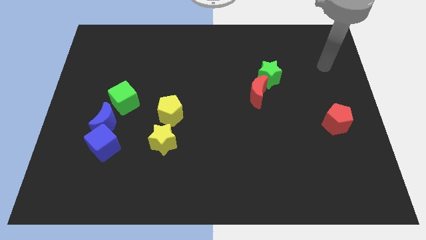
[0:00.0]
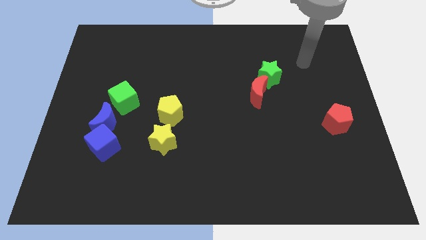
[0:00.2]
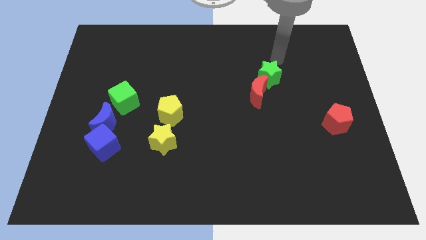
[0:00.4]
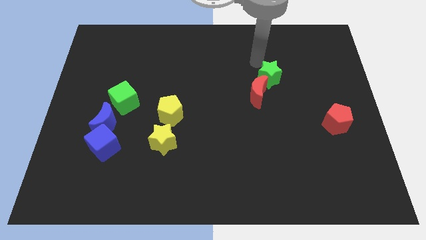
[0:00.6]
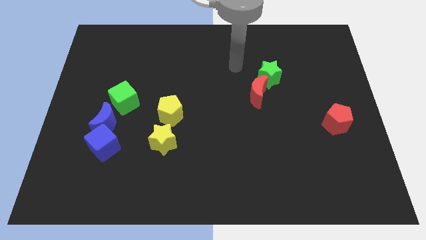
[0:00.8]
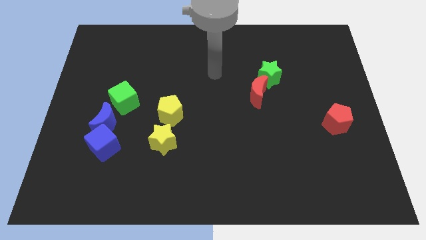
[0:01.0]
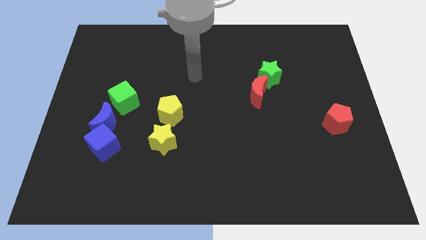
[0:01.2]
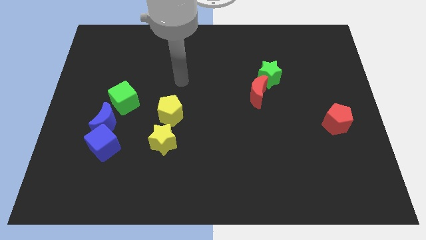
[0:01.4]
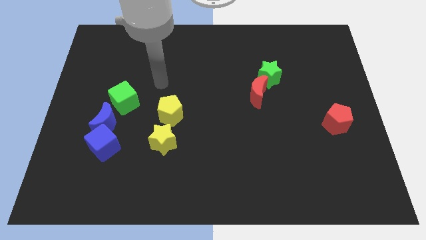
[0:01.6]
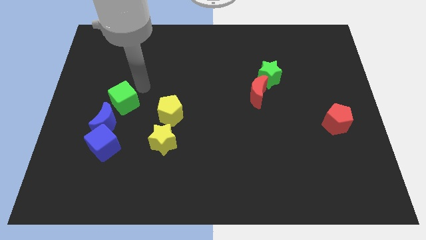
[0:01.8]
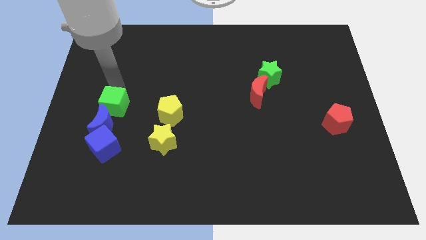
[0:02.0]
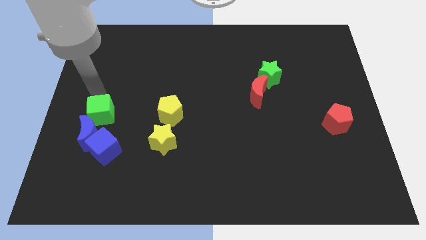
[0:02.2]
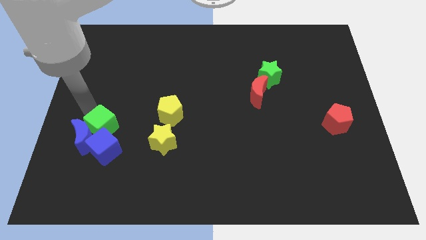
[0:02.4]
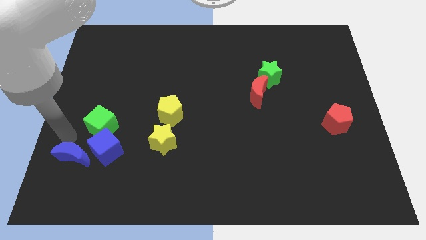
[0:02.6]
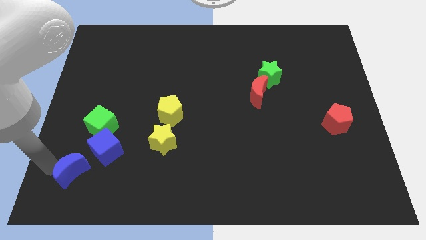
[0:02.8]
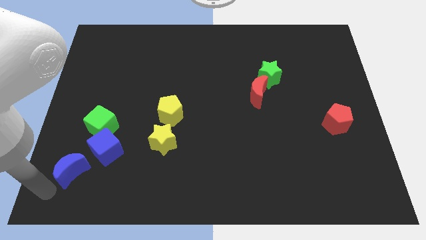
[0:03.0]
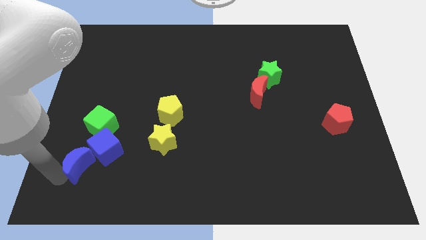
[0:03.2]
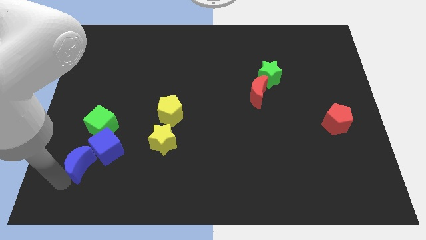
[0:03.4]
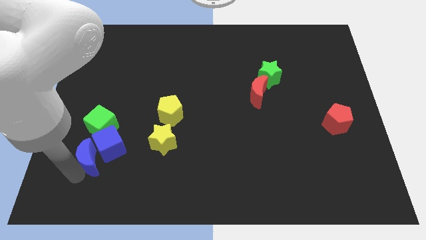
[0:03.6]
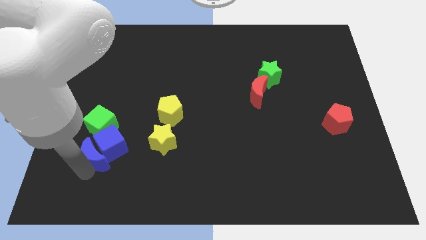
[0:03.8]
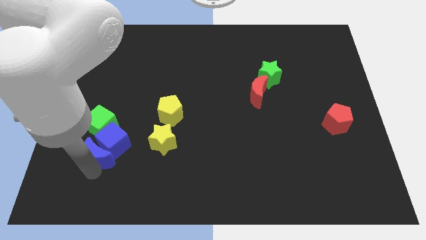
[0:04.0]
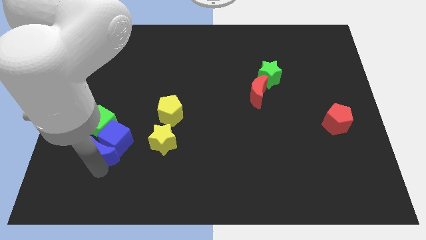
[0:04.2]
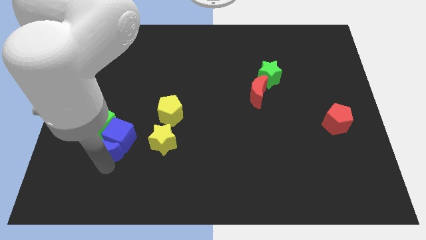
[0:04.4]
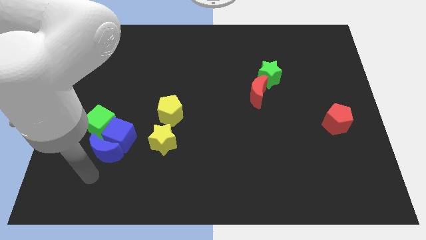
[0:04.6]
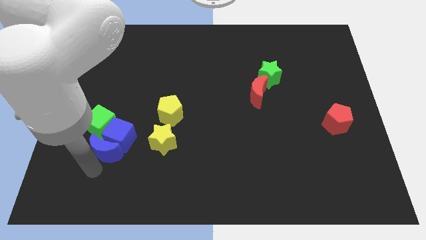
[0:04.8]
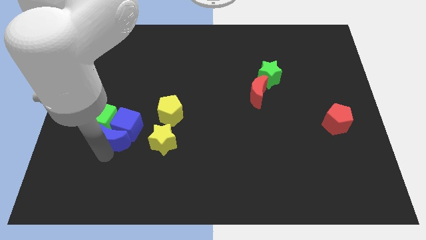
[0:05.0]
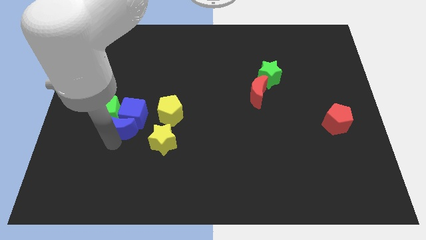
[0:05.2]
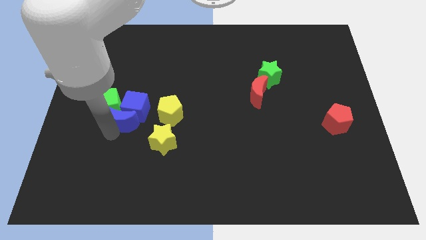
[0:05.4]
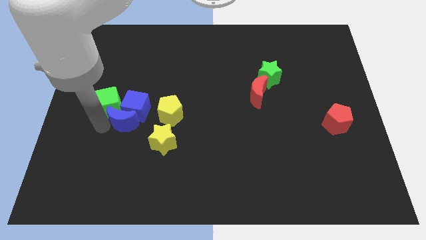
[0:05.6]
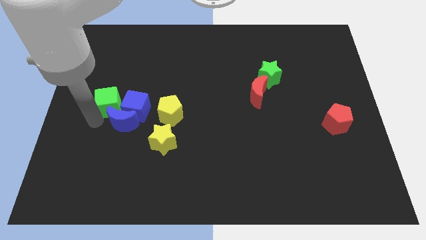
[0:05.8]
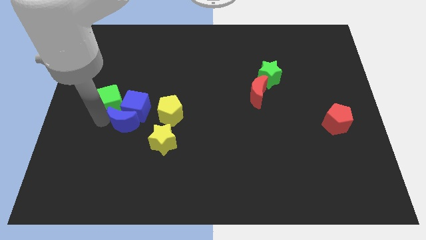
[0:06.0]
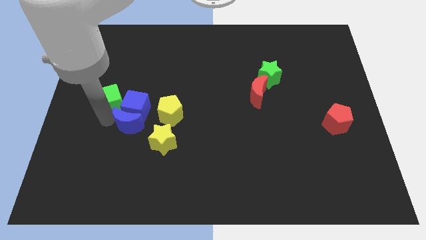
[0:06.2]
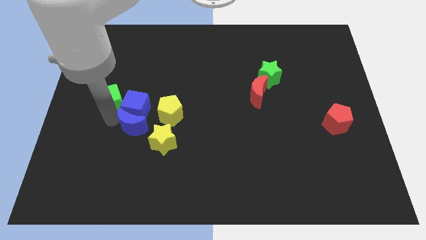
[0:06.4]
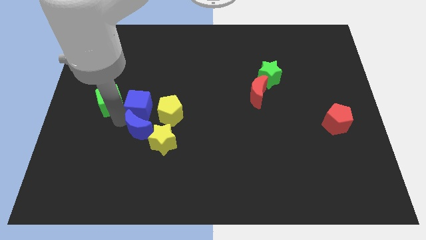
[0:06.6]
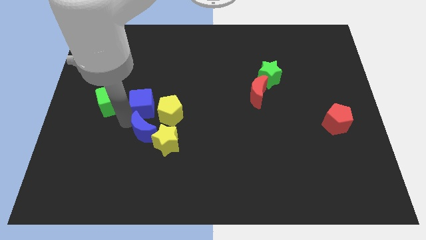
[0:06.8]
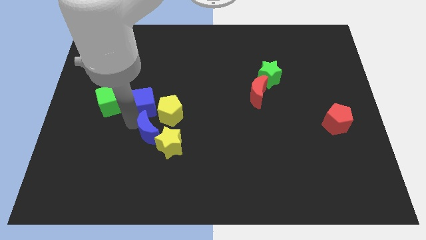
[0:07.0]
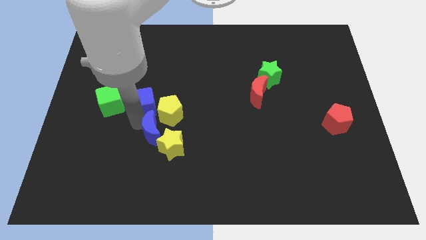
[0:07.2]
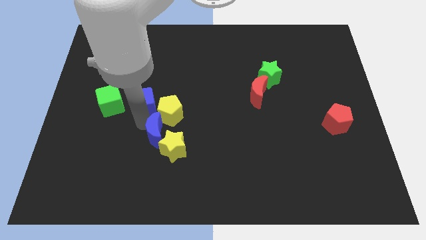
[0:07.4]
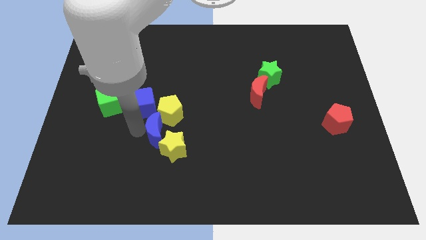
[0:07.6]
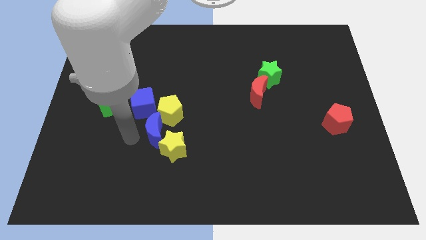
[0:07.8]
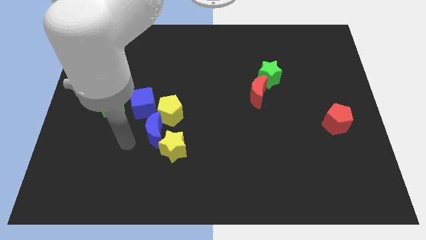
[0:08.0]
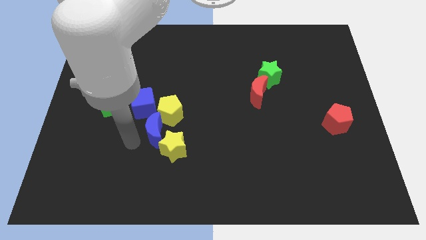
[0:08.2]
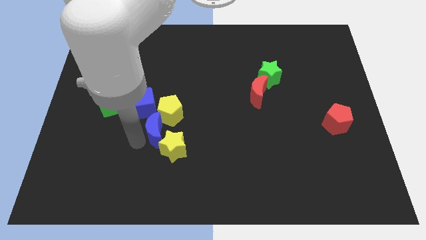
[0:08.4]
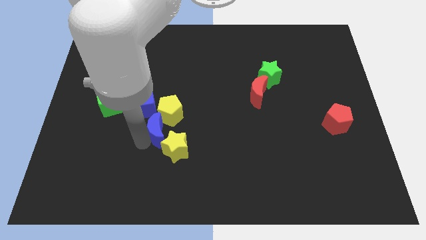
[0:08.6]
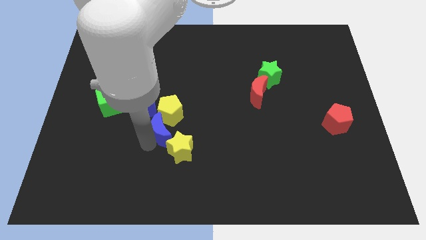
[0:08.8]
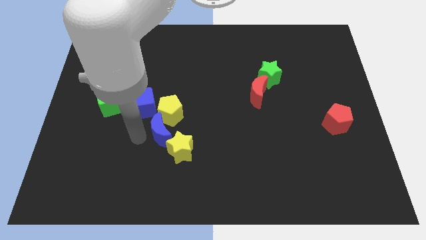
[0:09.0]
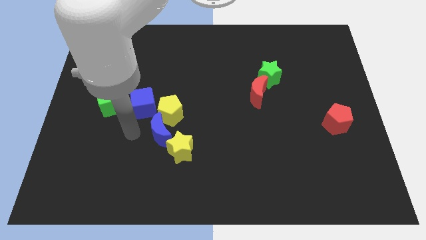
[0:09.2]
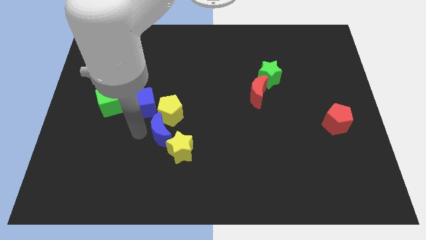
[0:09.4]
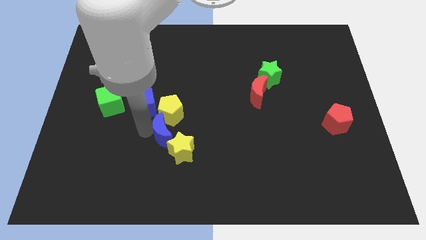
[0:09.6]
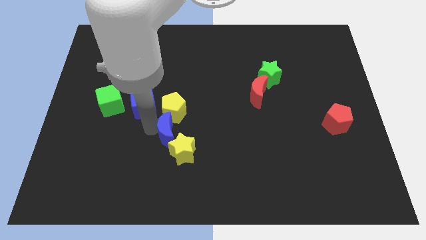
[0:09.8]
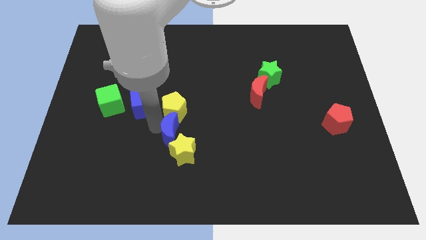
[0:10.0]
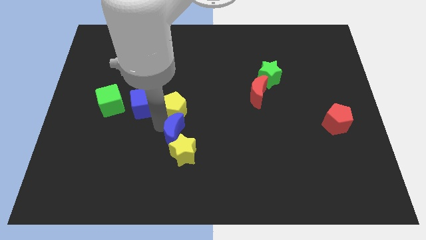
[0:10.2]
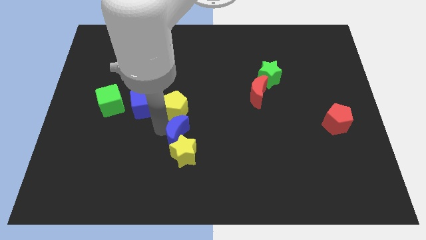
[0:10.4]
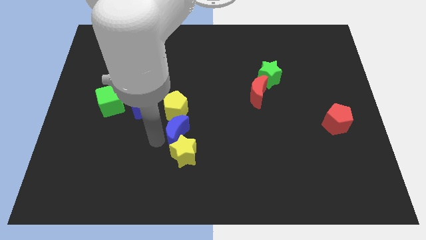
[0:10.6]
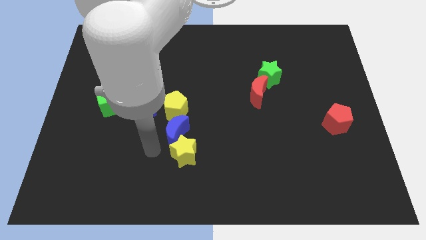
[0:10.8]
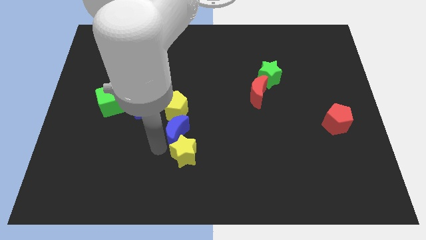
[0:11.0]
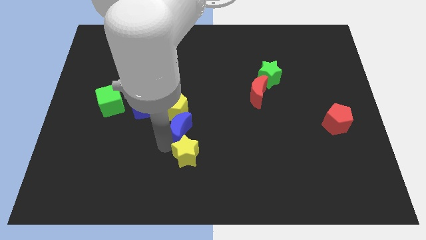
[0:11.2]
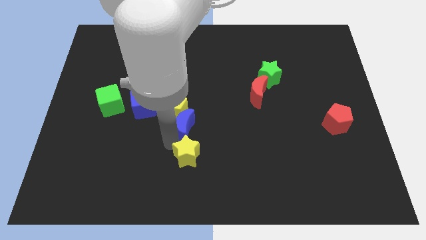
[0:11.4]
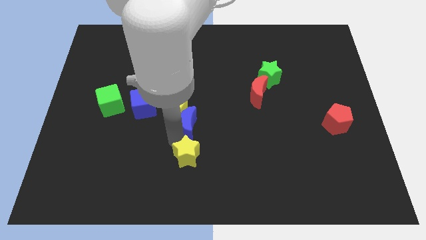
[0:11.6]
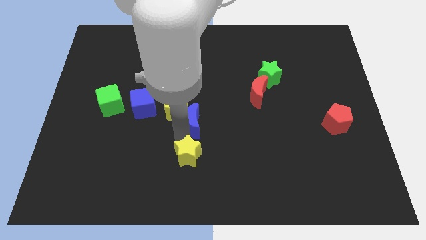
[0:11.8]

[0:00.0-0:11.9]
push the blue moon right

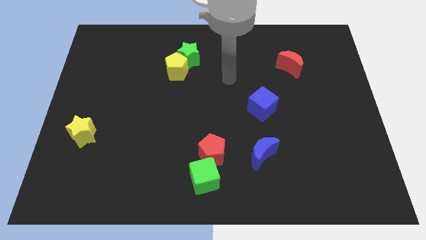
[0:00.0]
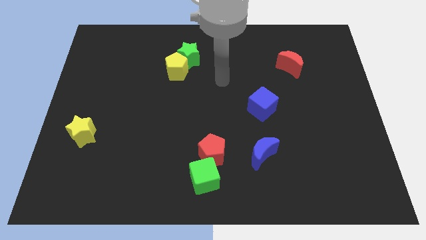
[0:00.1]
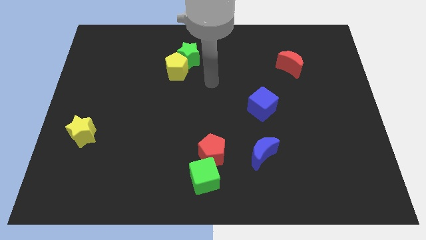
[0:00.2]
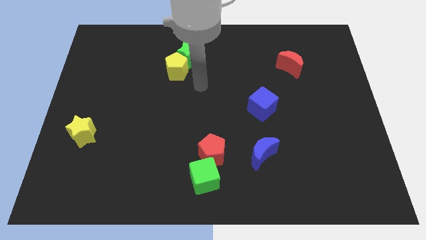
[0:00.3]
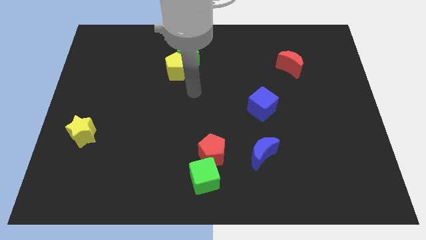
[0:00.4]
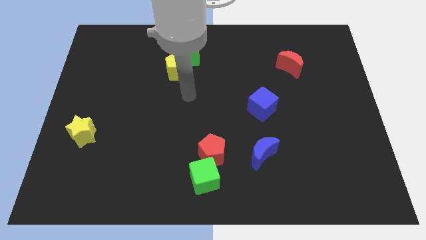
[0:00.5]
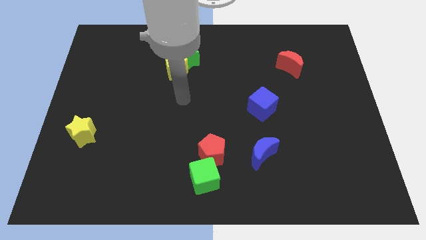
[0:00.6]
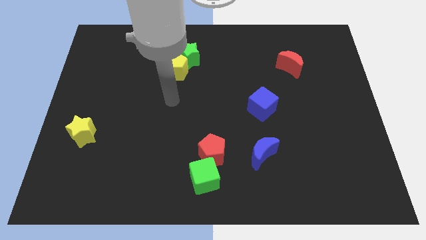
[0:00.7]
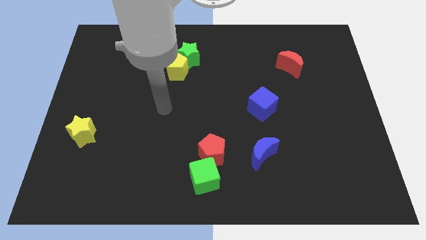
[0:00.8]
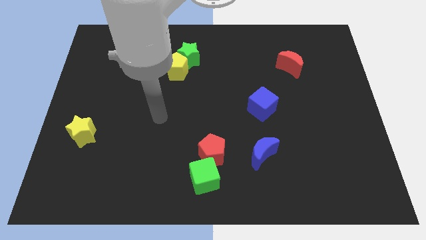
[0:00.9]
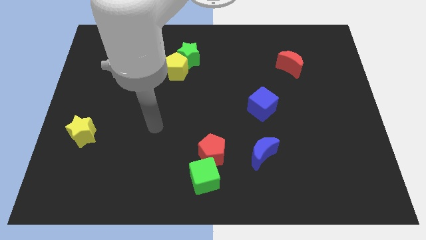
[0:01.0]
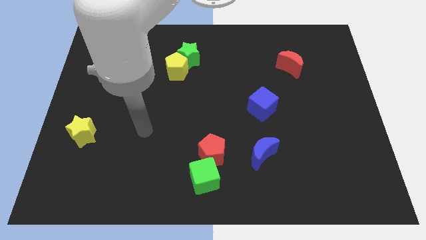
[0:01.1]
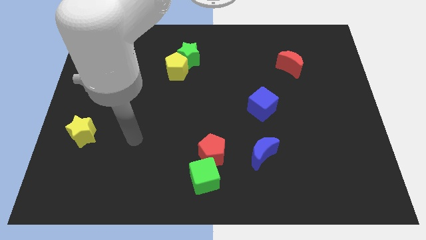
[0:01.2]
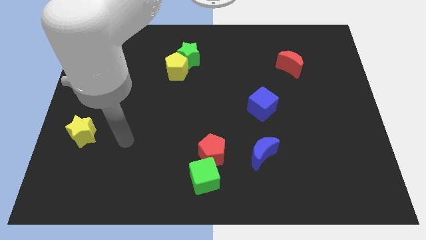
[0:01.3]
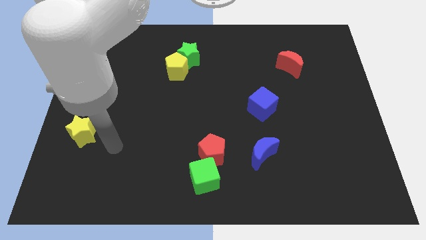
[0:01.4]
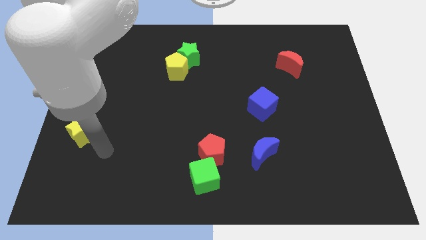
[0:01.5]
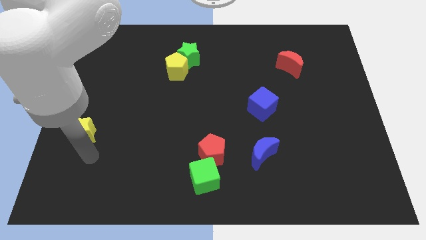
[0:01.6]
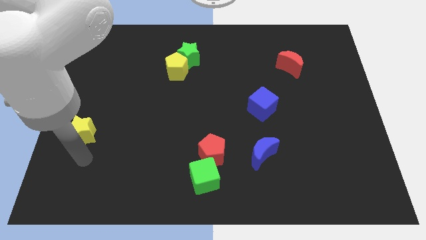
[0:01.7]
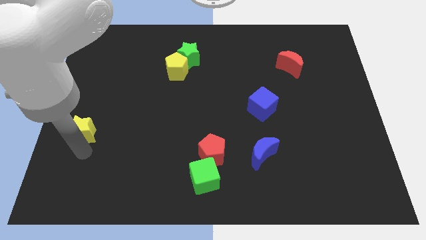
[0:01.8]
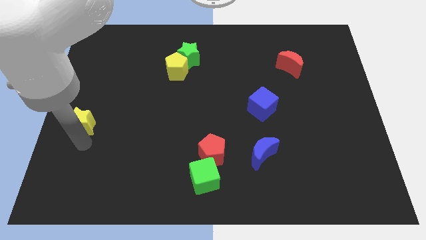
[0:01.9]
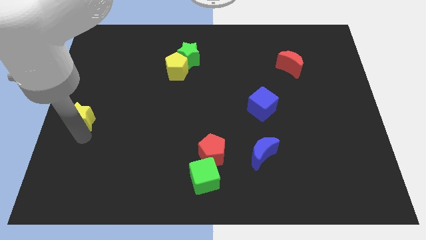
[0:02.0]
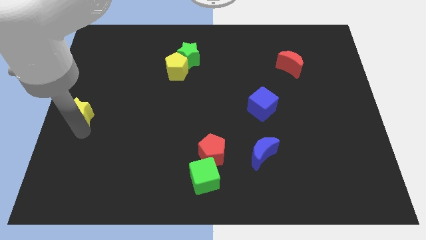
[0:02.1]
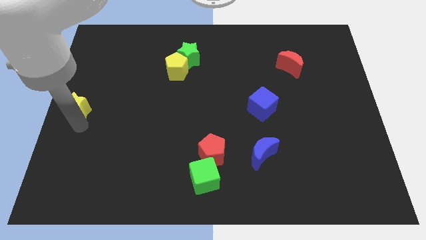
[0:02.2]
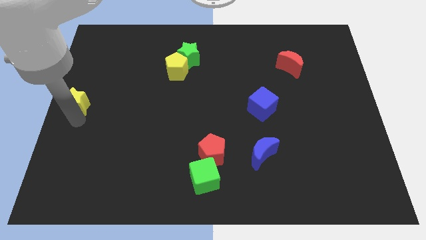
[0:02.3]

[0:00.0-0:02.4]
slide the yellow star up slightly
